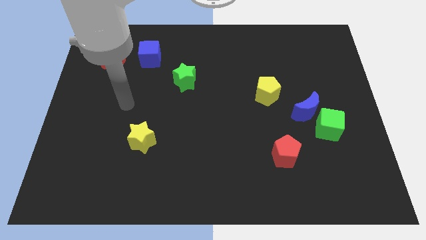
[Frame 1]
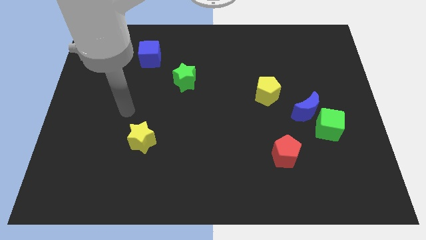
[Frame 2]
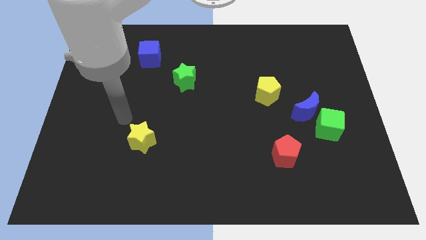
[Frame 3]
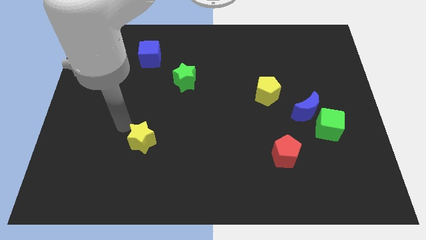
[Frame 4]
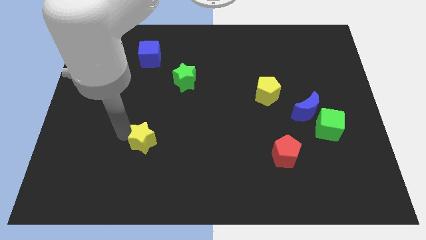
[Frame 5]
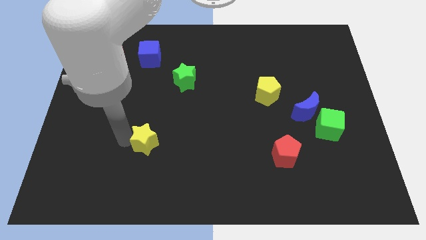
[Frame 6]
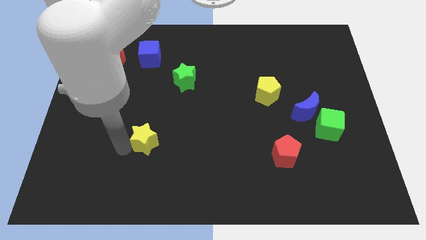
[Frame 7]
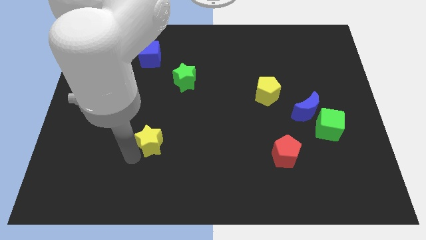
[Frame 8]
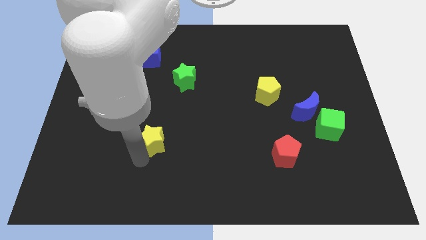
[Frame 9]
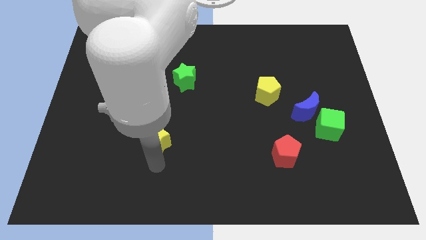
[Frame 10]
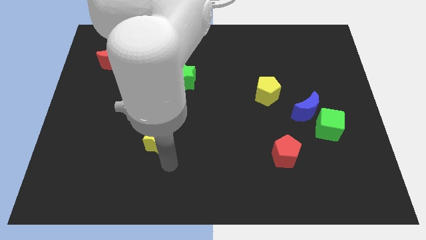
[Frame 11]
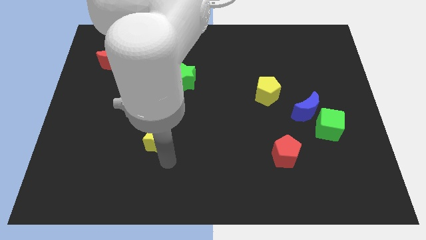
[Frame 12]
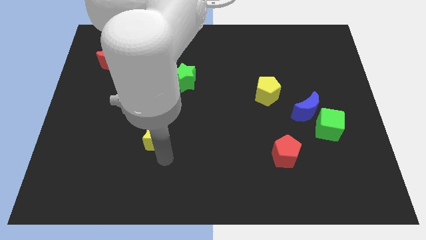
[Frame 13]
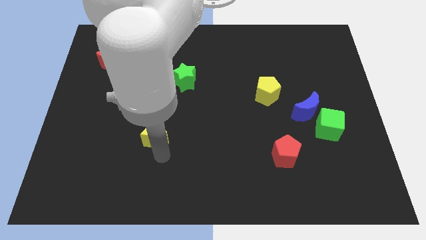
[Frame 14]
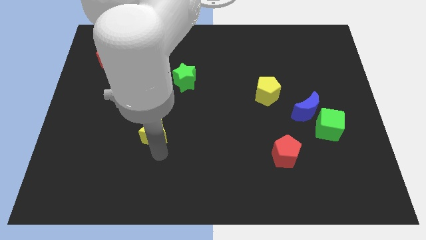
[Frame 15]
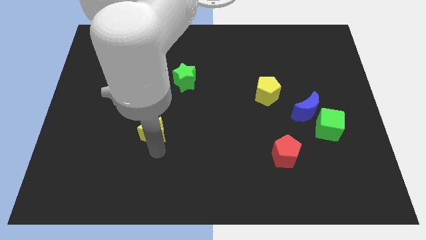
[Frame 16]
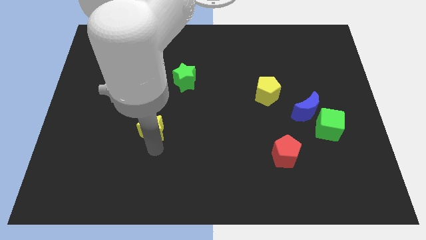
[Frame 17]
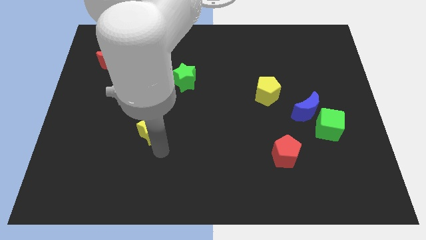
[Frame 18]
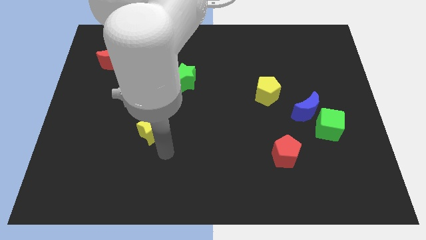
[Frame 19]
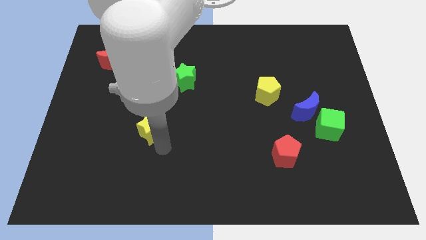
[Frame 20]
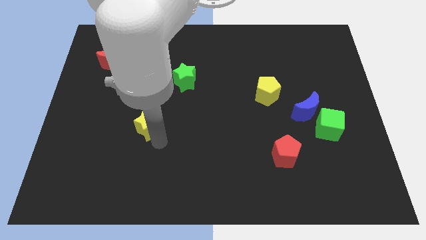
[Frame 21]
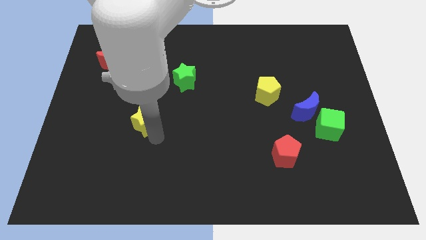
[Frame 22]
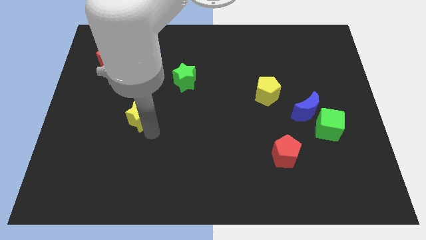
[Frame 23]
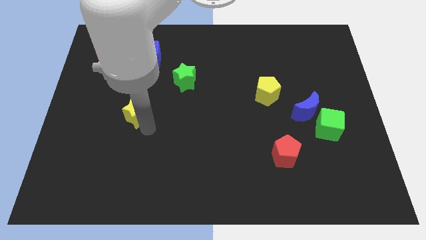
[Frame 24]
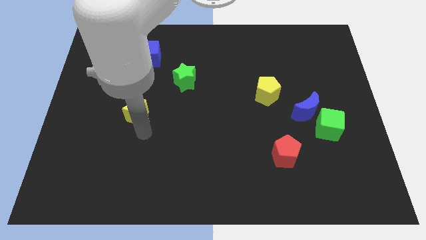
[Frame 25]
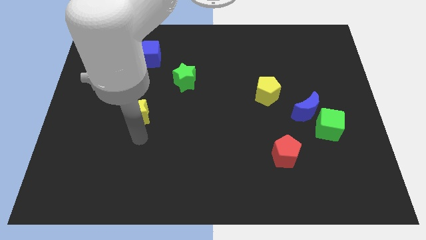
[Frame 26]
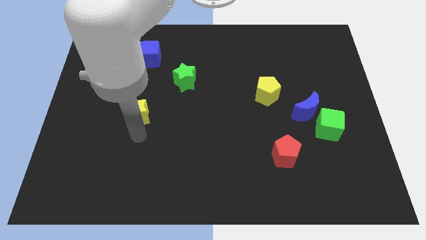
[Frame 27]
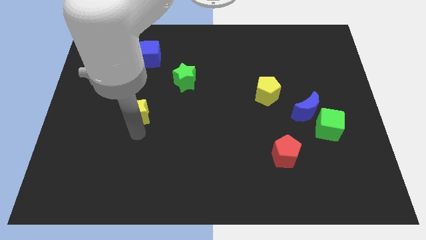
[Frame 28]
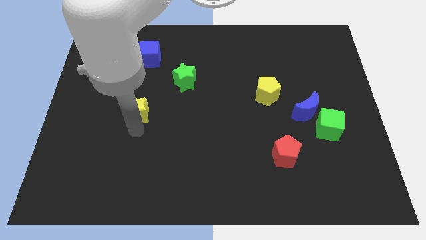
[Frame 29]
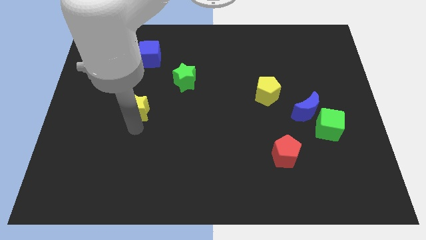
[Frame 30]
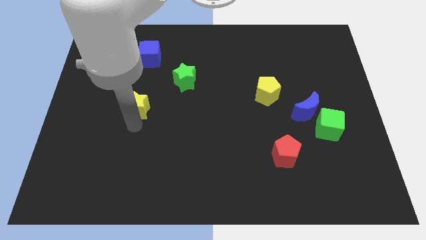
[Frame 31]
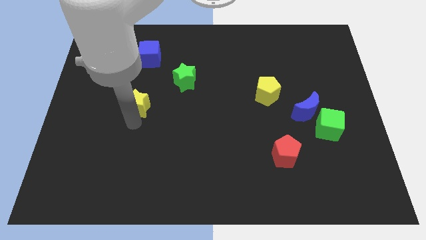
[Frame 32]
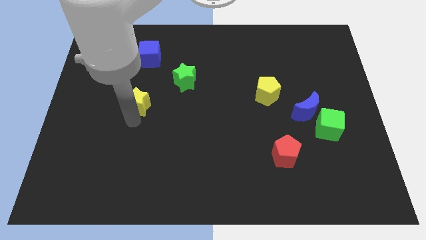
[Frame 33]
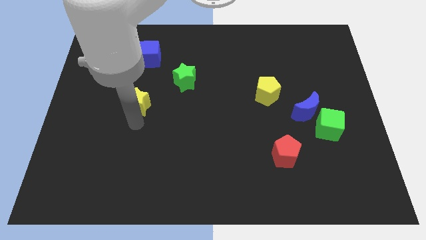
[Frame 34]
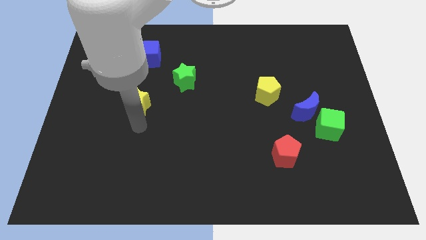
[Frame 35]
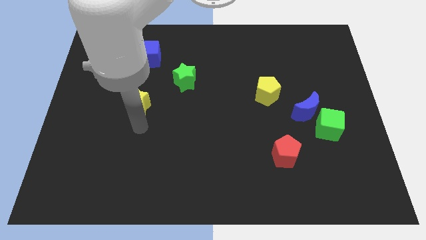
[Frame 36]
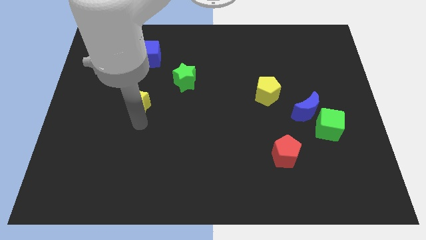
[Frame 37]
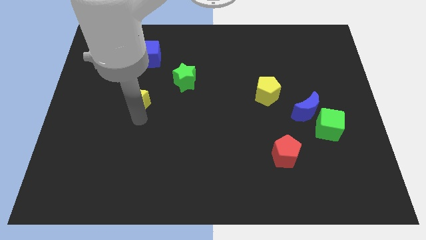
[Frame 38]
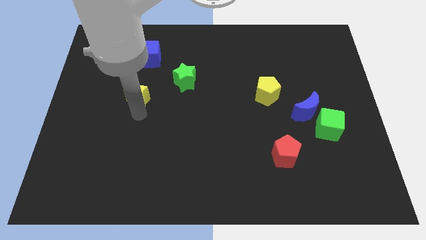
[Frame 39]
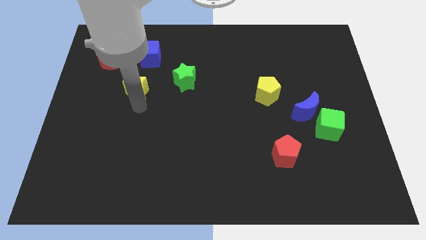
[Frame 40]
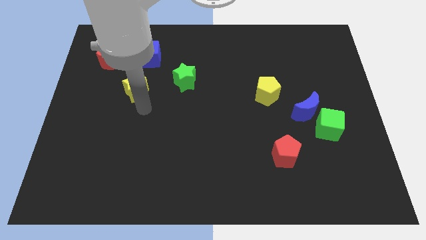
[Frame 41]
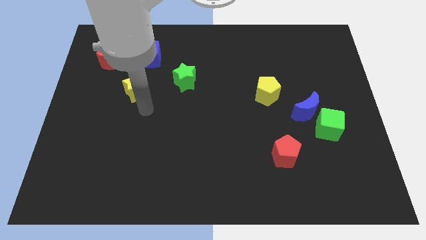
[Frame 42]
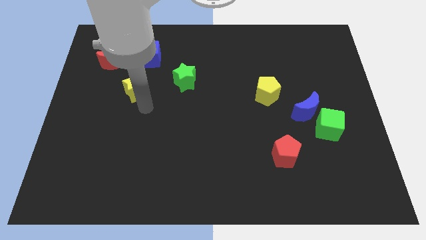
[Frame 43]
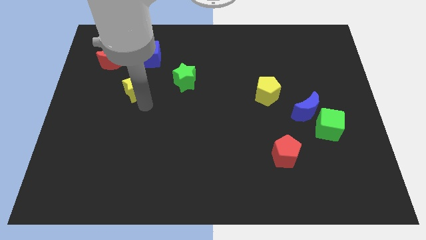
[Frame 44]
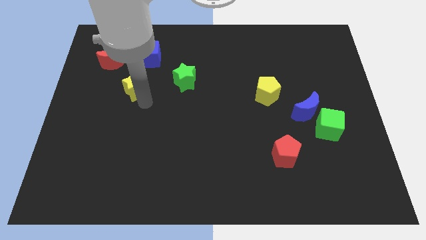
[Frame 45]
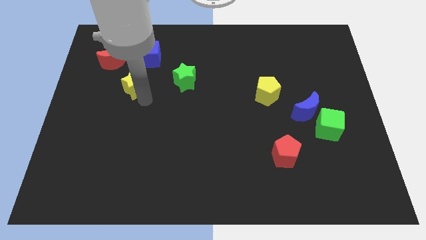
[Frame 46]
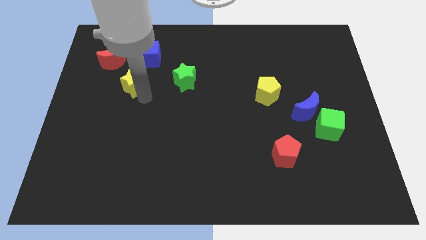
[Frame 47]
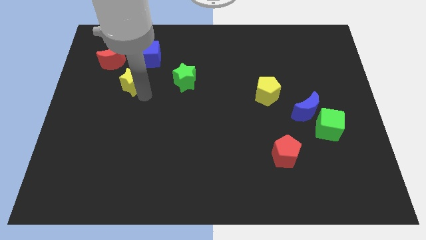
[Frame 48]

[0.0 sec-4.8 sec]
slide the yellow star diagonally down and to the left of the blue cube

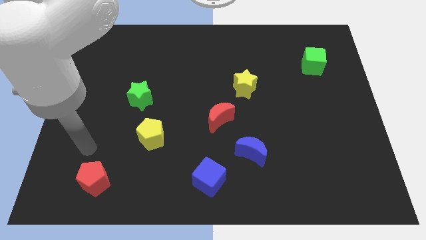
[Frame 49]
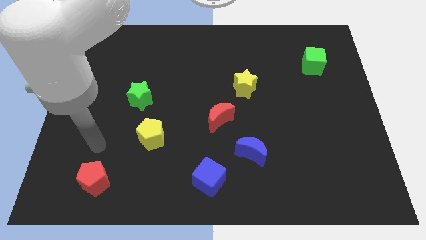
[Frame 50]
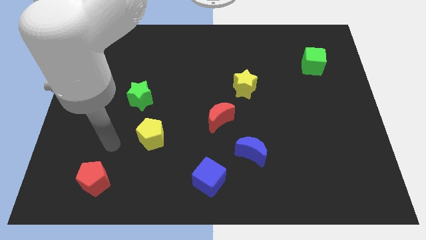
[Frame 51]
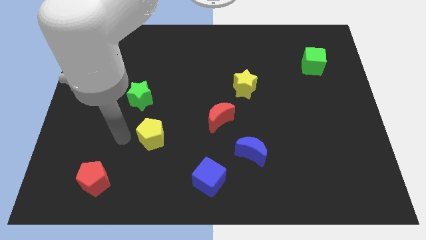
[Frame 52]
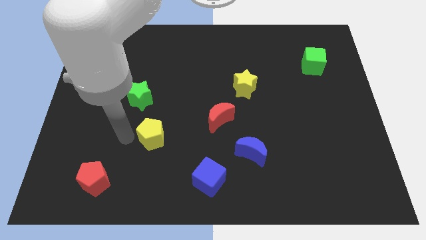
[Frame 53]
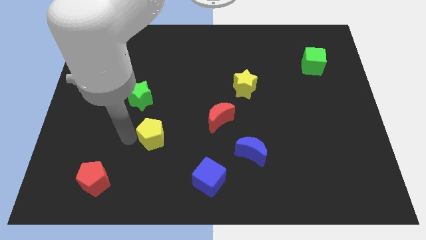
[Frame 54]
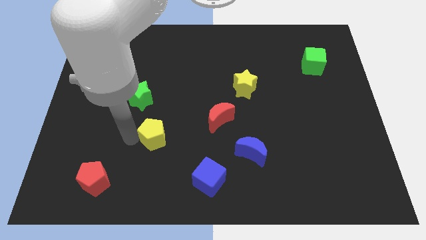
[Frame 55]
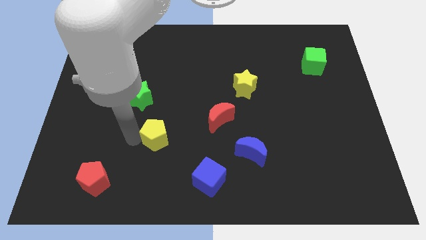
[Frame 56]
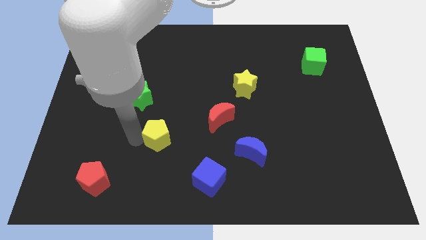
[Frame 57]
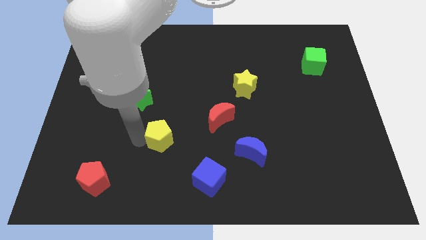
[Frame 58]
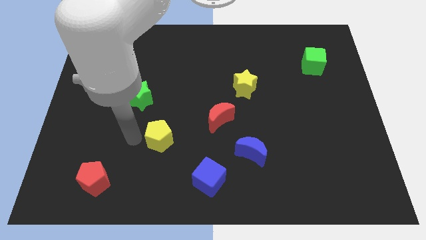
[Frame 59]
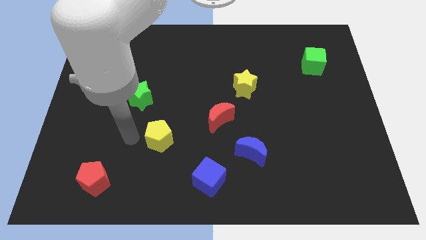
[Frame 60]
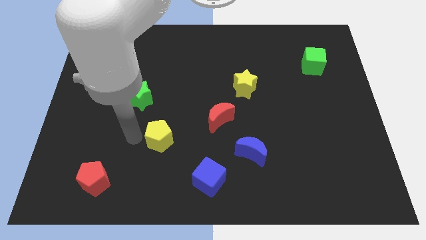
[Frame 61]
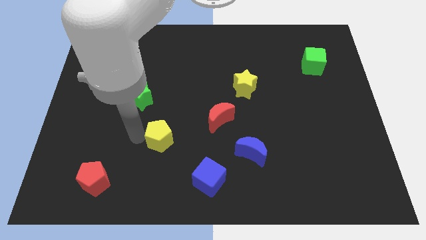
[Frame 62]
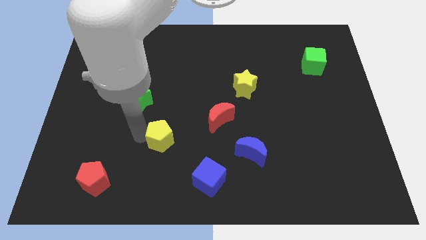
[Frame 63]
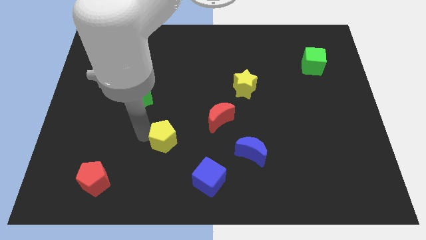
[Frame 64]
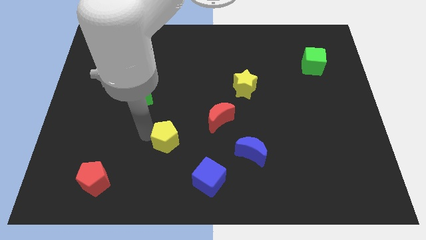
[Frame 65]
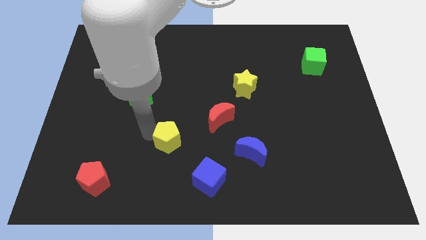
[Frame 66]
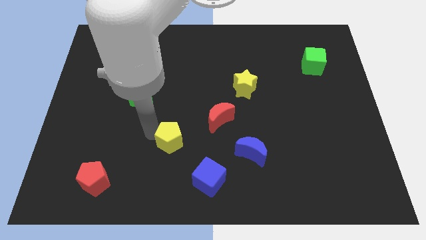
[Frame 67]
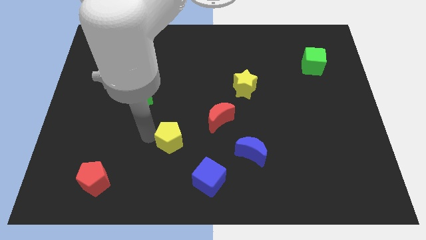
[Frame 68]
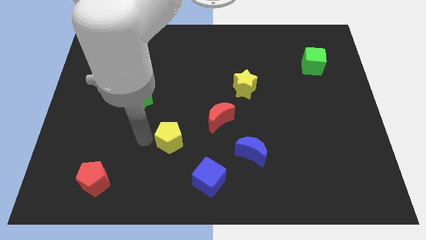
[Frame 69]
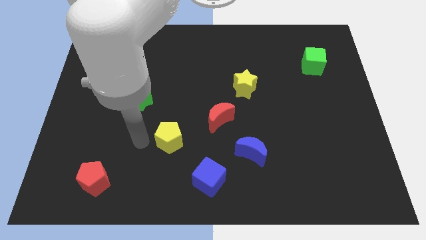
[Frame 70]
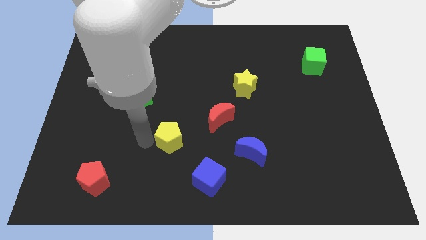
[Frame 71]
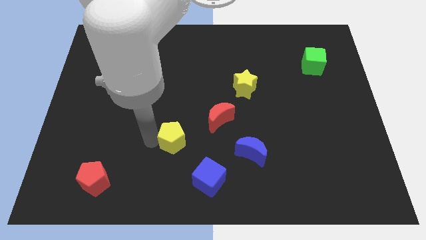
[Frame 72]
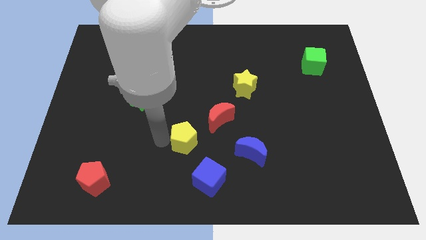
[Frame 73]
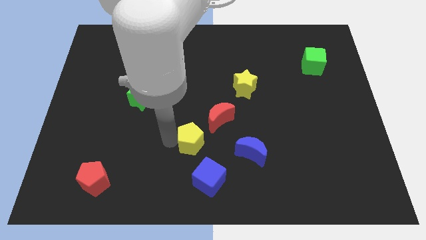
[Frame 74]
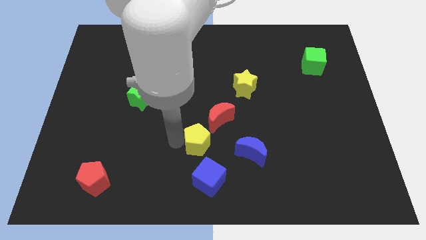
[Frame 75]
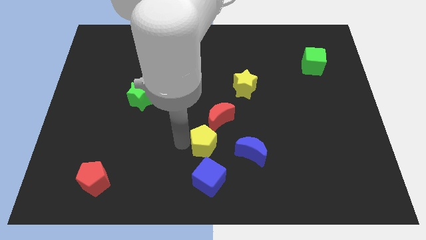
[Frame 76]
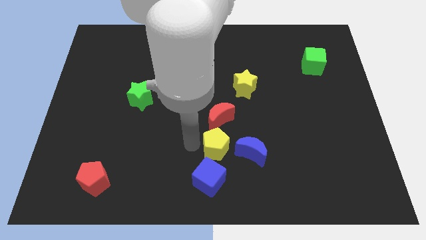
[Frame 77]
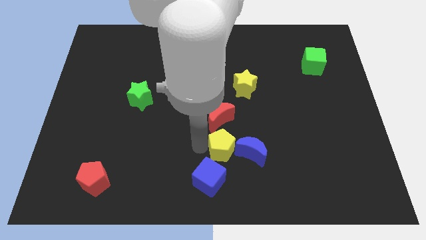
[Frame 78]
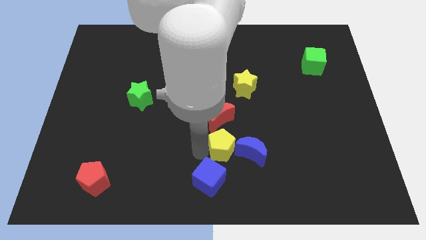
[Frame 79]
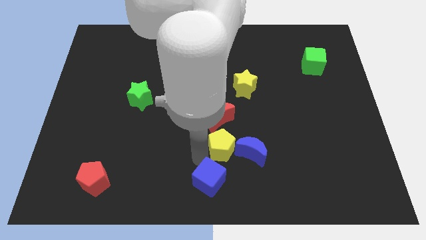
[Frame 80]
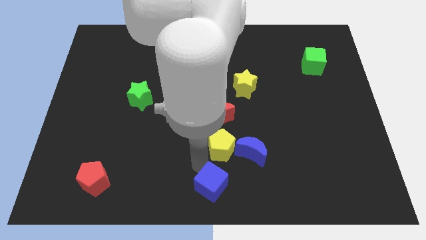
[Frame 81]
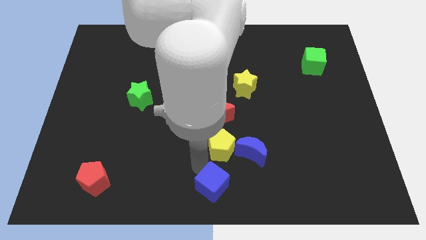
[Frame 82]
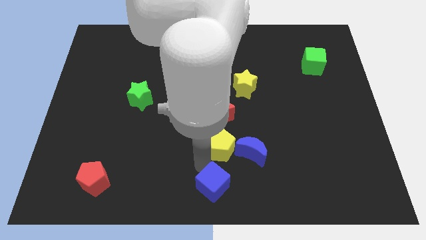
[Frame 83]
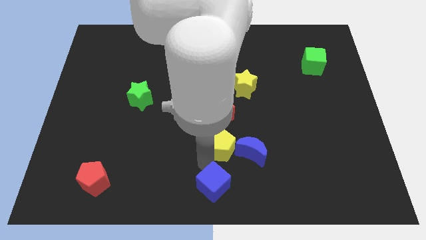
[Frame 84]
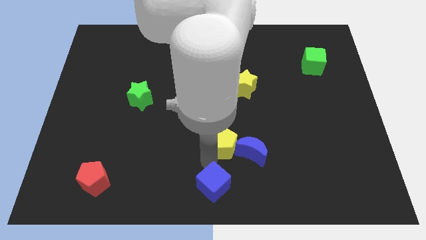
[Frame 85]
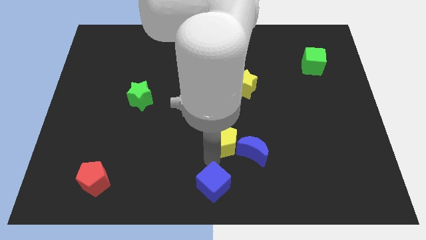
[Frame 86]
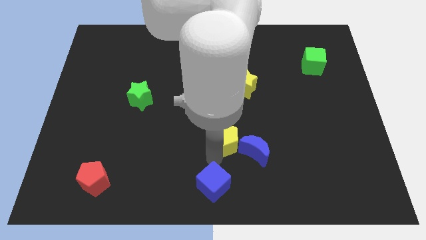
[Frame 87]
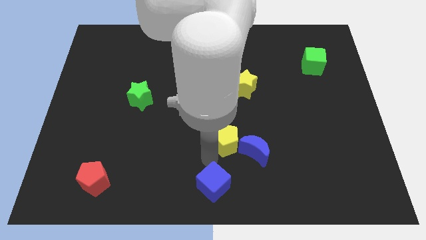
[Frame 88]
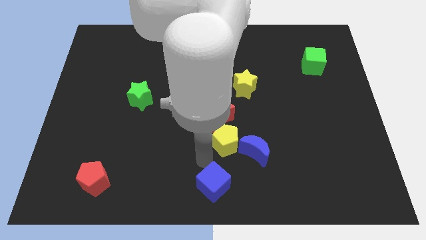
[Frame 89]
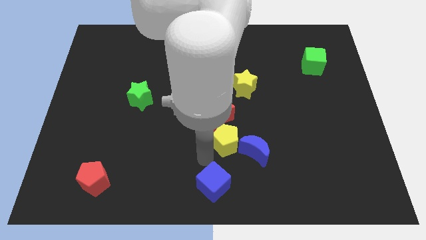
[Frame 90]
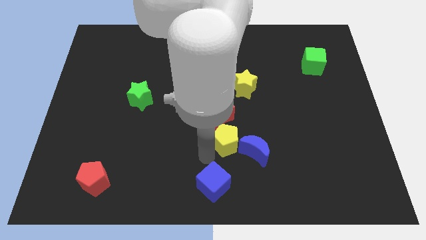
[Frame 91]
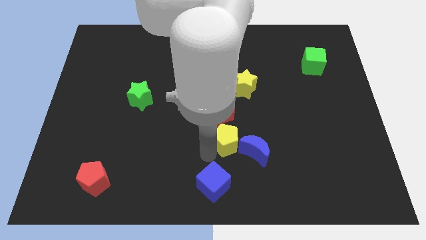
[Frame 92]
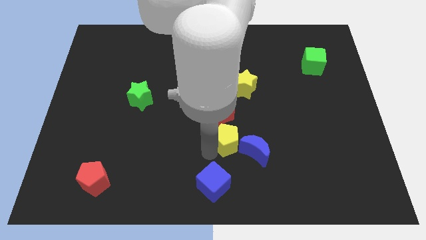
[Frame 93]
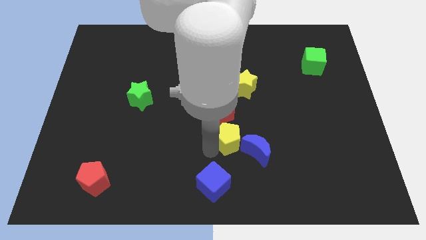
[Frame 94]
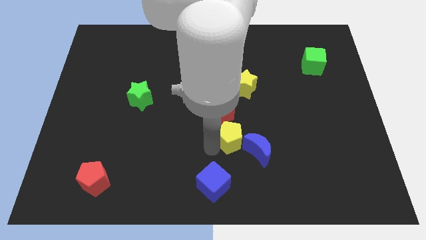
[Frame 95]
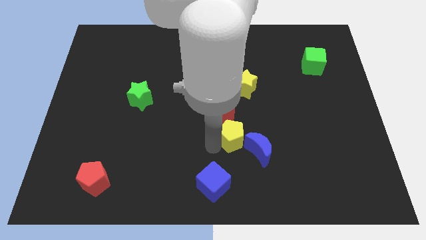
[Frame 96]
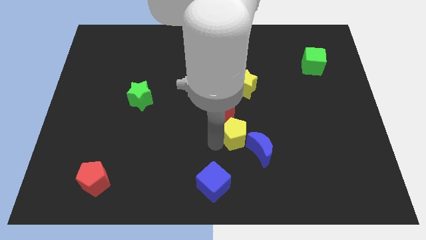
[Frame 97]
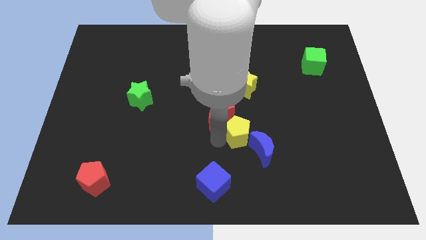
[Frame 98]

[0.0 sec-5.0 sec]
push the yellow pentagon to the right side of the red moon
